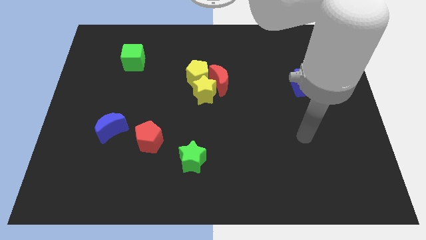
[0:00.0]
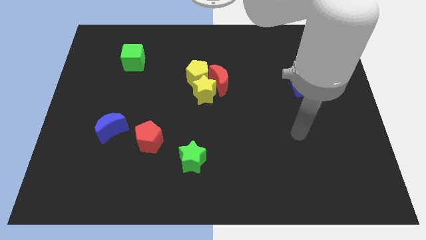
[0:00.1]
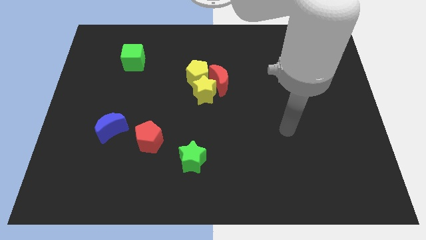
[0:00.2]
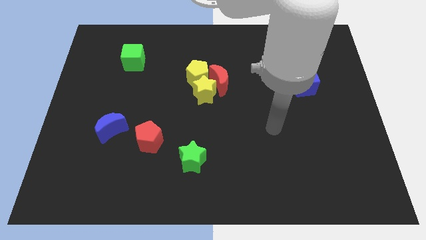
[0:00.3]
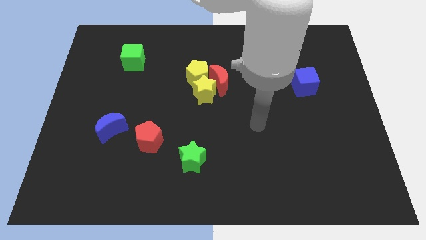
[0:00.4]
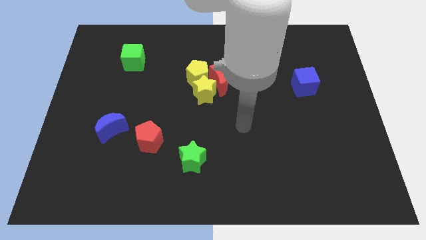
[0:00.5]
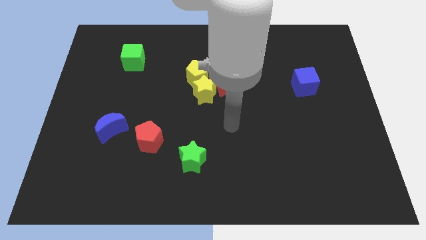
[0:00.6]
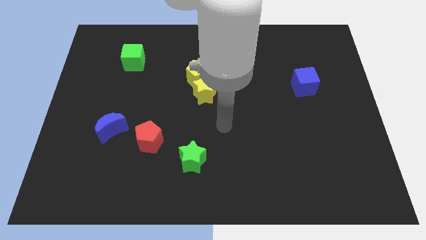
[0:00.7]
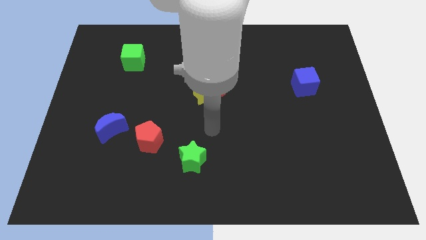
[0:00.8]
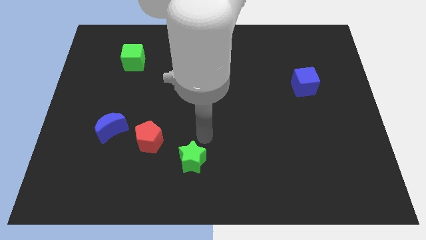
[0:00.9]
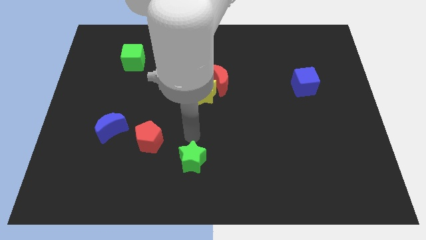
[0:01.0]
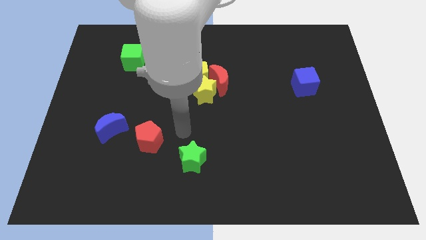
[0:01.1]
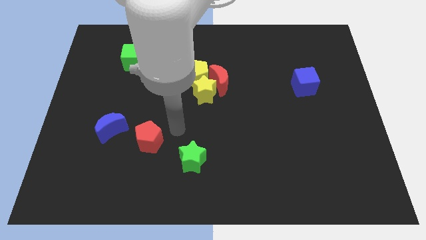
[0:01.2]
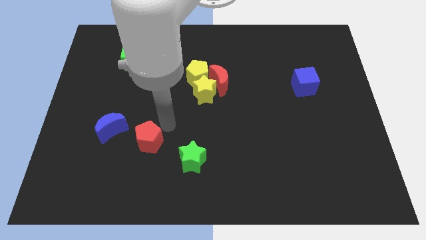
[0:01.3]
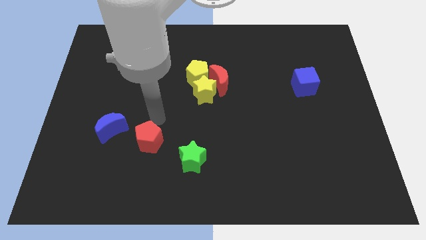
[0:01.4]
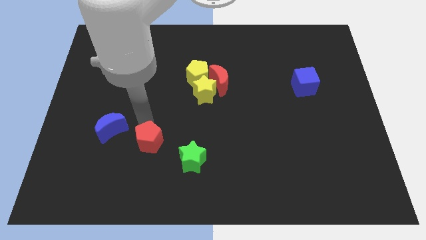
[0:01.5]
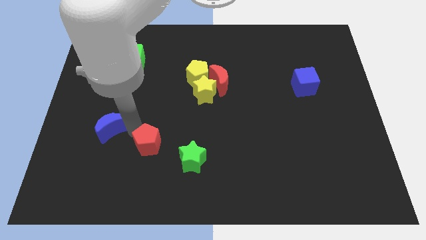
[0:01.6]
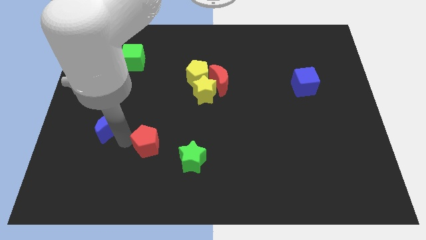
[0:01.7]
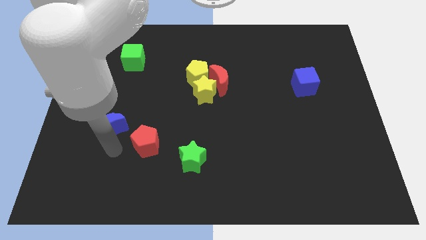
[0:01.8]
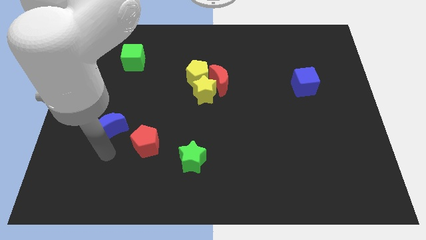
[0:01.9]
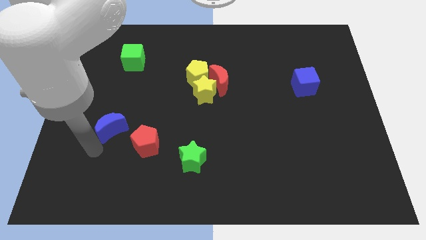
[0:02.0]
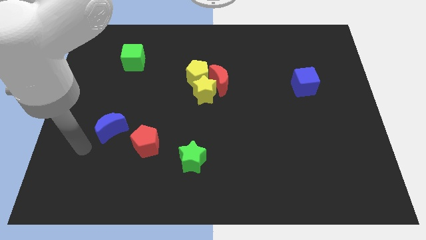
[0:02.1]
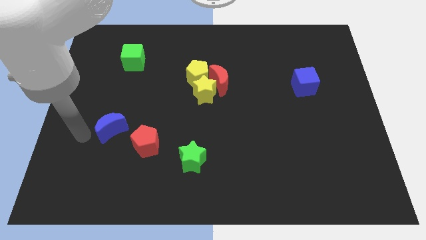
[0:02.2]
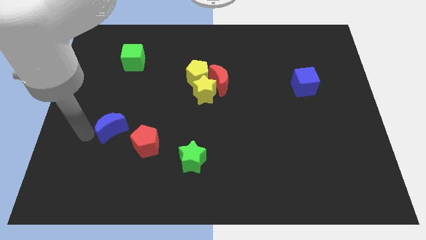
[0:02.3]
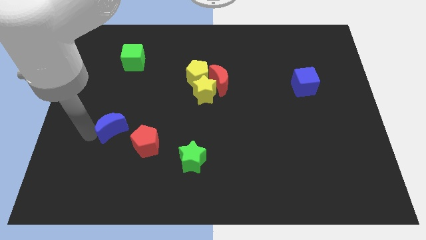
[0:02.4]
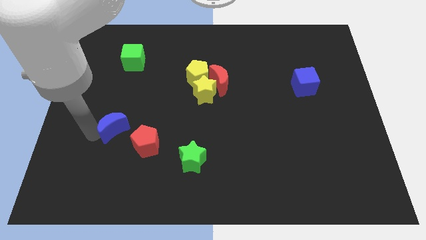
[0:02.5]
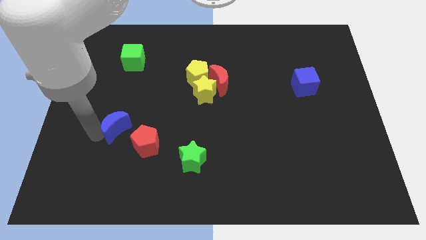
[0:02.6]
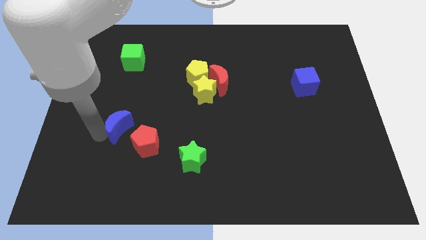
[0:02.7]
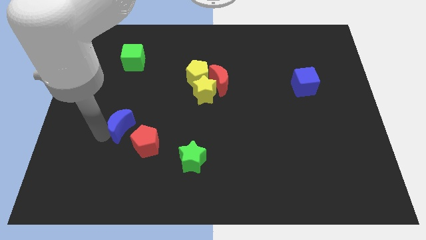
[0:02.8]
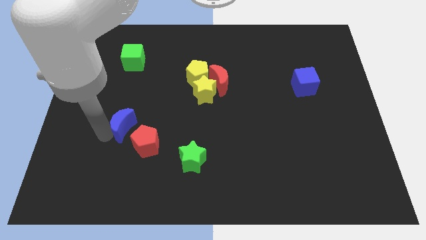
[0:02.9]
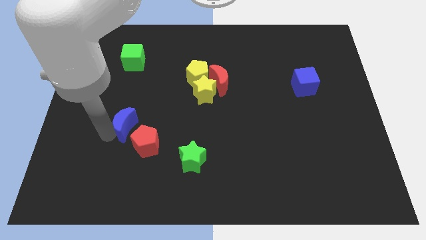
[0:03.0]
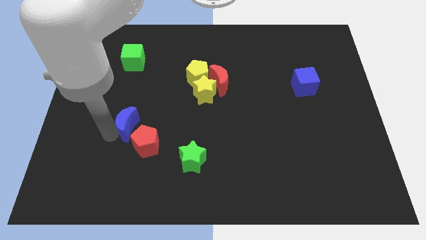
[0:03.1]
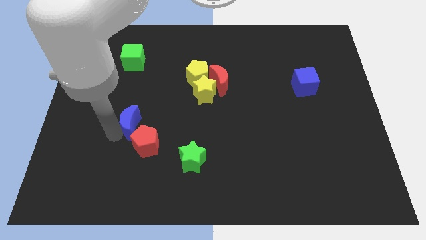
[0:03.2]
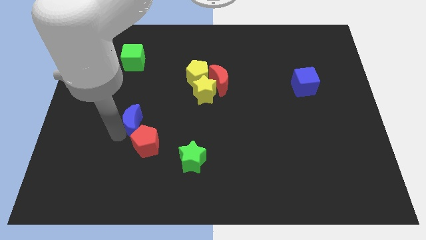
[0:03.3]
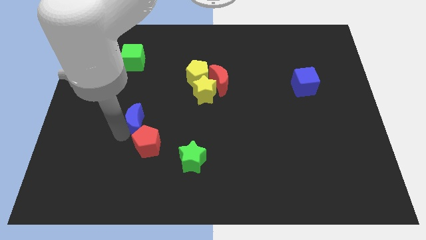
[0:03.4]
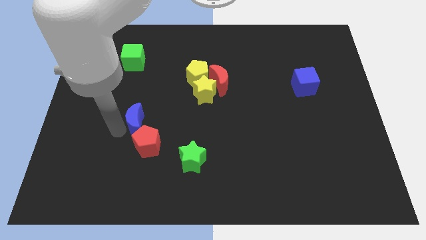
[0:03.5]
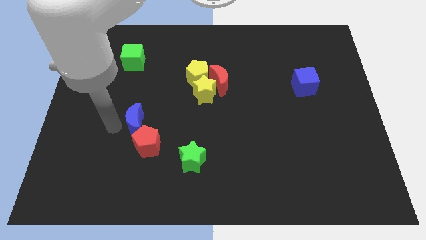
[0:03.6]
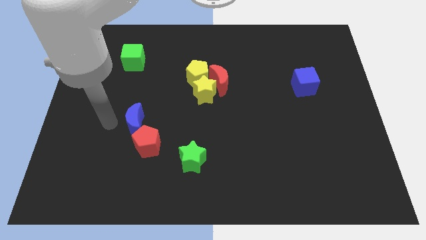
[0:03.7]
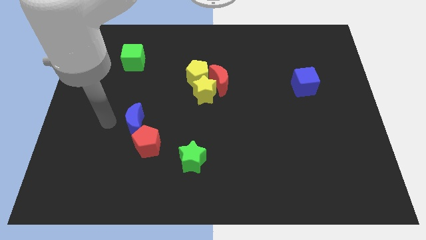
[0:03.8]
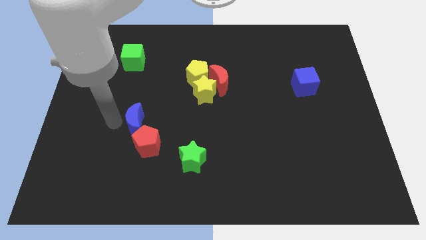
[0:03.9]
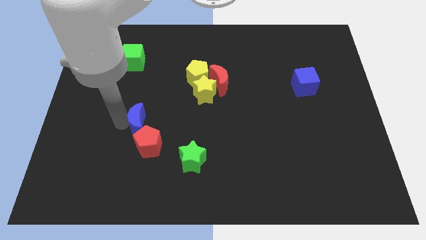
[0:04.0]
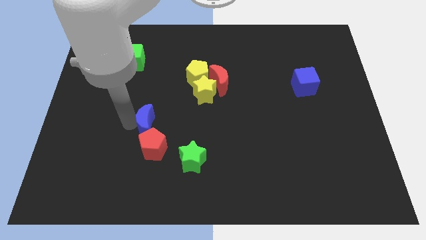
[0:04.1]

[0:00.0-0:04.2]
push the blue moon a little bit to the right

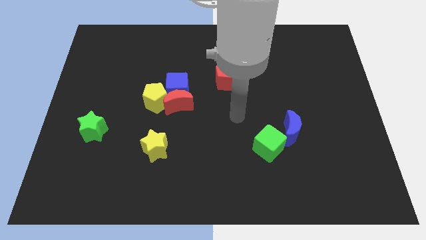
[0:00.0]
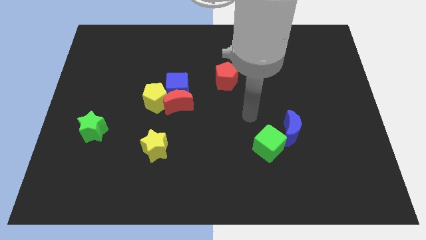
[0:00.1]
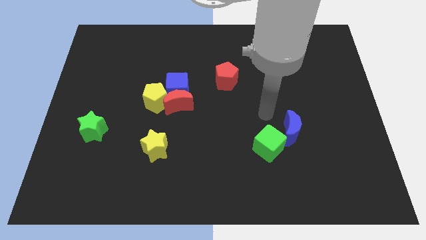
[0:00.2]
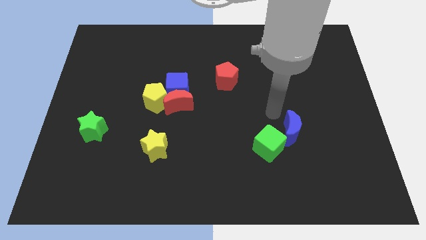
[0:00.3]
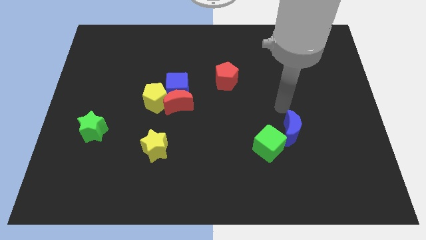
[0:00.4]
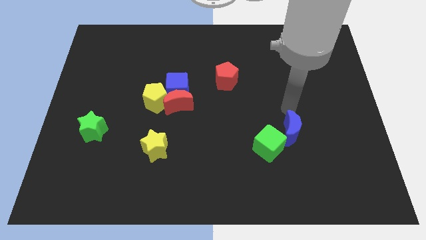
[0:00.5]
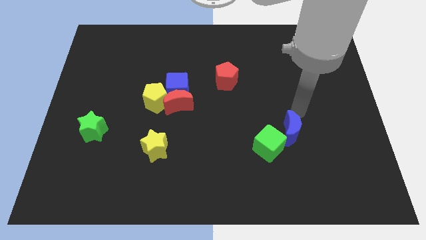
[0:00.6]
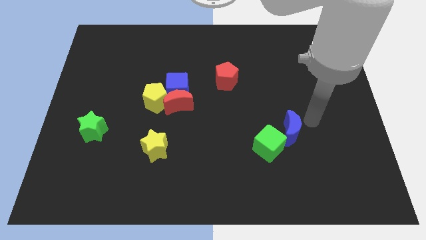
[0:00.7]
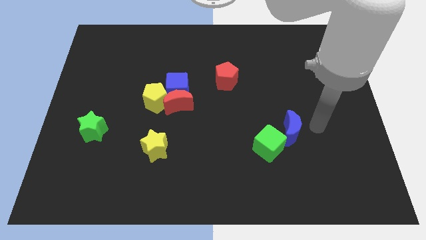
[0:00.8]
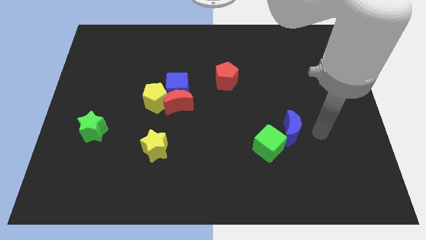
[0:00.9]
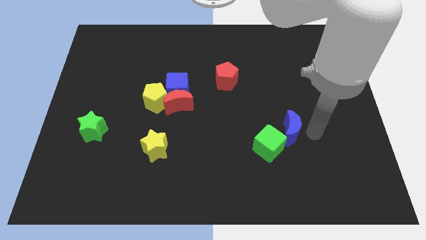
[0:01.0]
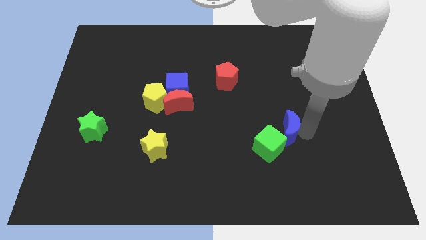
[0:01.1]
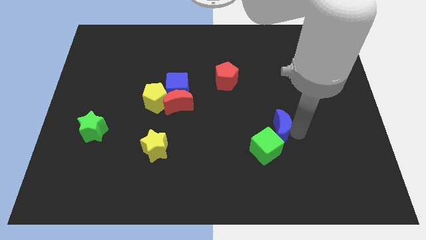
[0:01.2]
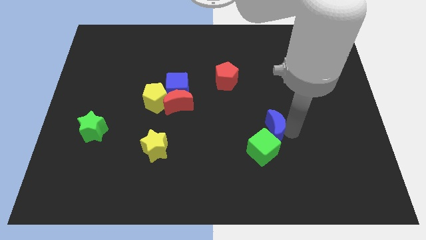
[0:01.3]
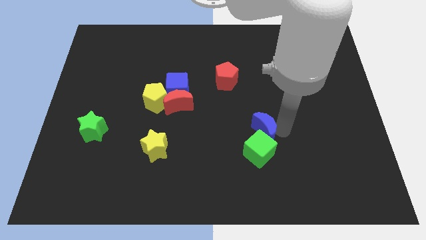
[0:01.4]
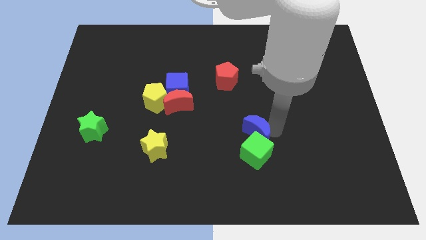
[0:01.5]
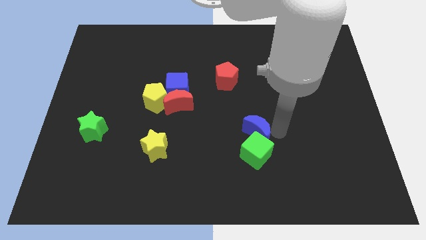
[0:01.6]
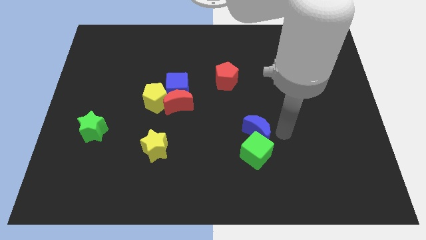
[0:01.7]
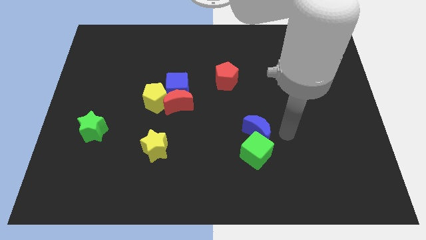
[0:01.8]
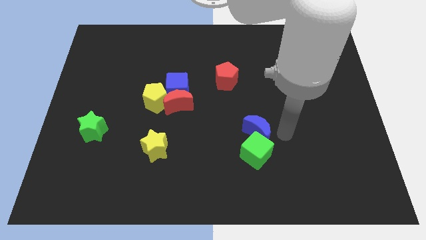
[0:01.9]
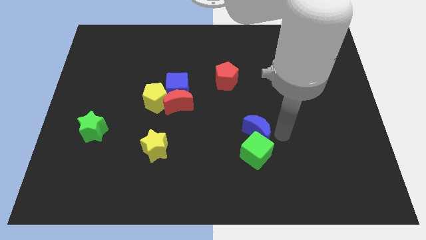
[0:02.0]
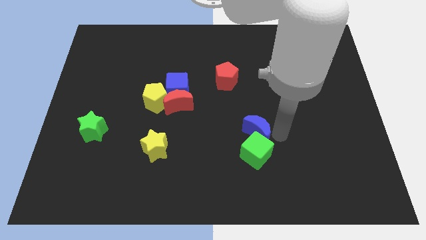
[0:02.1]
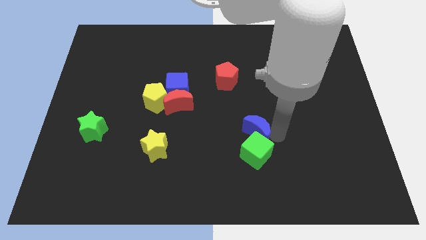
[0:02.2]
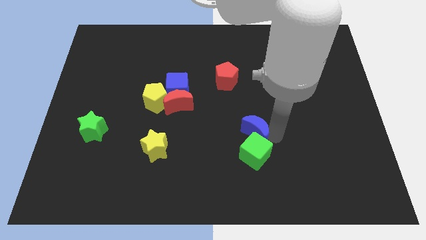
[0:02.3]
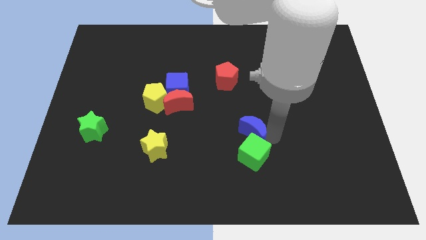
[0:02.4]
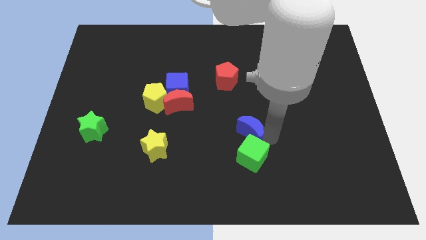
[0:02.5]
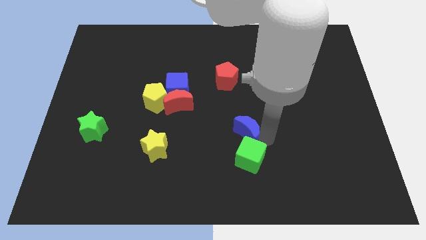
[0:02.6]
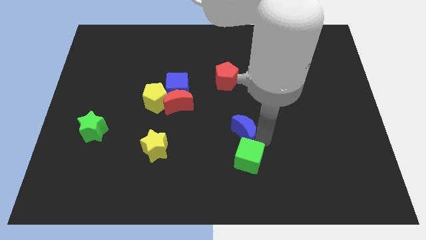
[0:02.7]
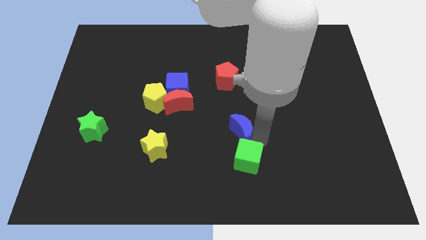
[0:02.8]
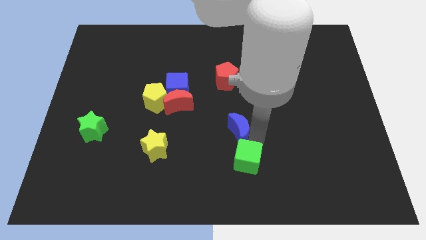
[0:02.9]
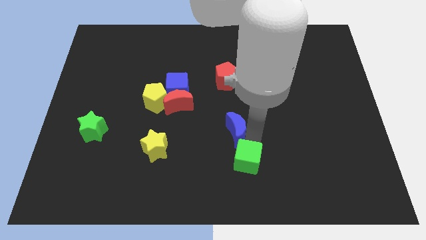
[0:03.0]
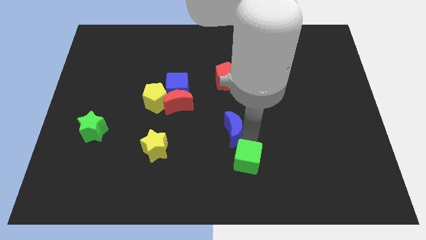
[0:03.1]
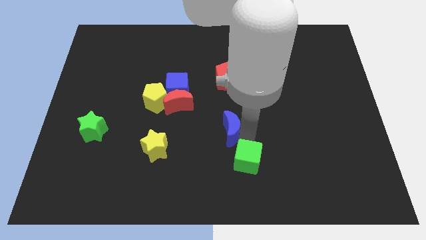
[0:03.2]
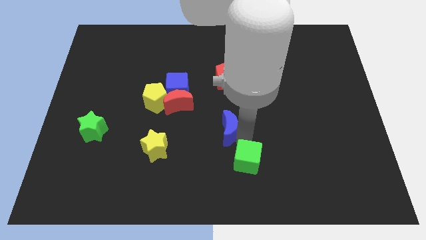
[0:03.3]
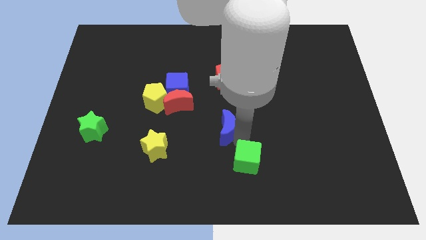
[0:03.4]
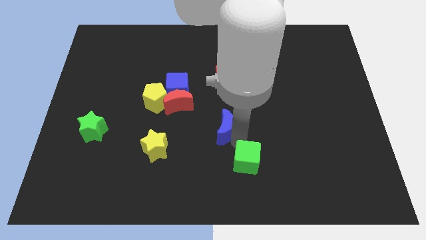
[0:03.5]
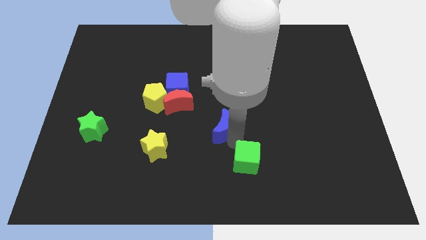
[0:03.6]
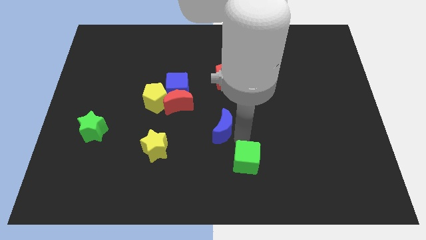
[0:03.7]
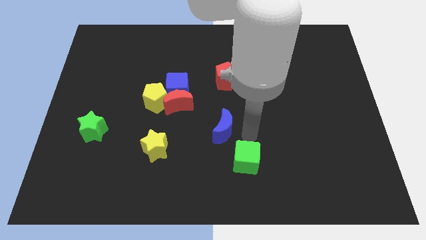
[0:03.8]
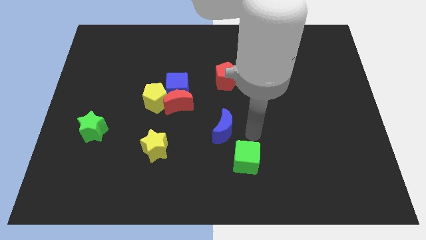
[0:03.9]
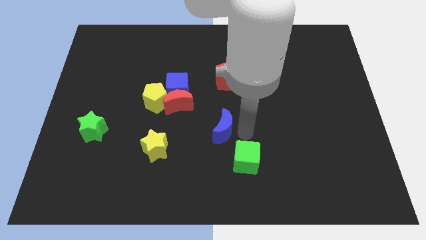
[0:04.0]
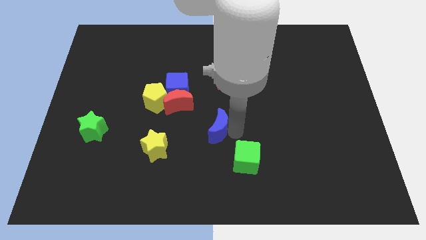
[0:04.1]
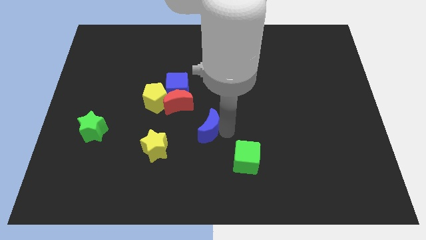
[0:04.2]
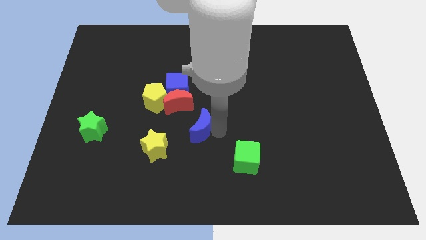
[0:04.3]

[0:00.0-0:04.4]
push the blue moon left
